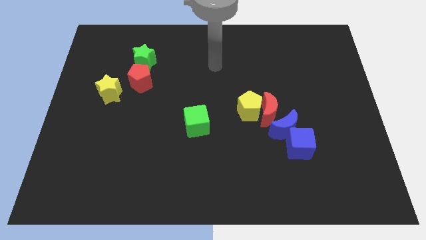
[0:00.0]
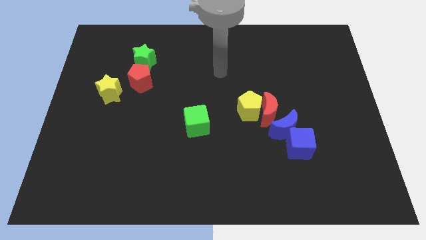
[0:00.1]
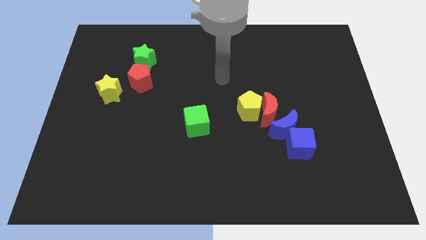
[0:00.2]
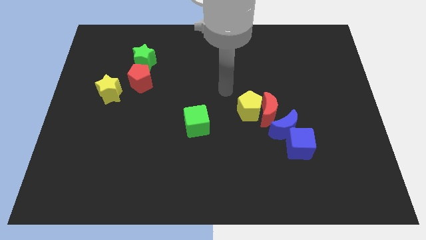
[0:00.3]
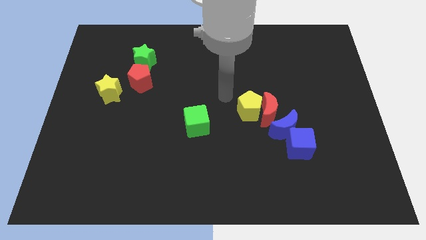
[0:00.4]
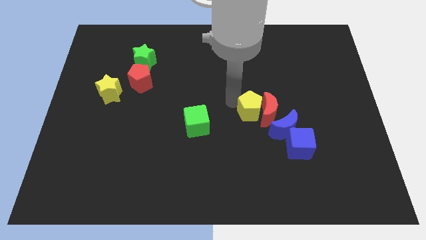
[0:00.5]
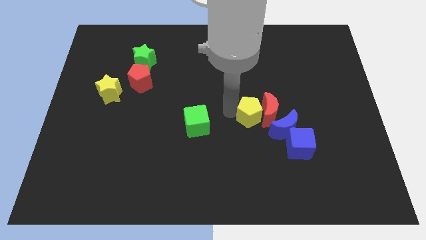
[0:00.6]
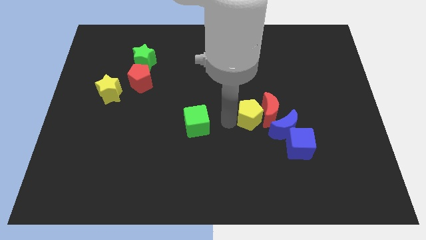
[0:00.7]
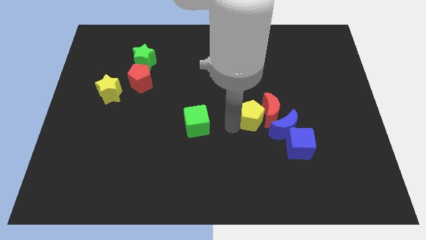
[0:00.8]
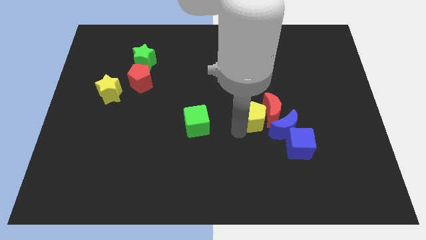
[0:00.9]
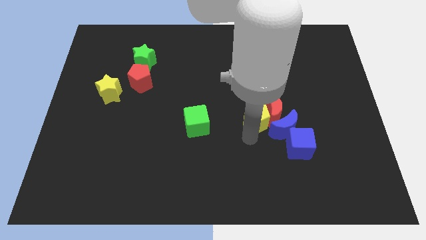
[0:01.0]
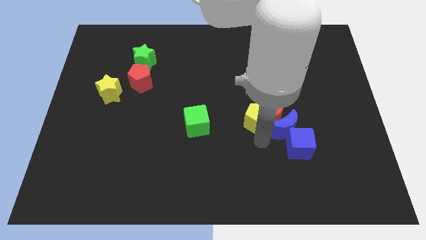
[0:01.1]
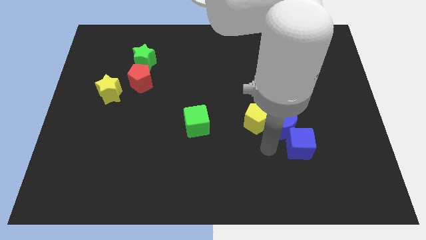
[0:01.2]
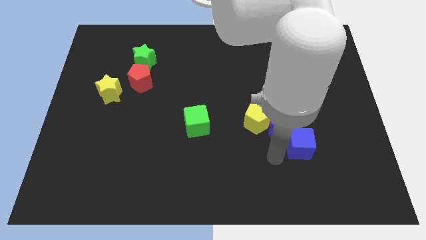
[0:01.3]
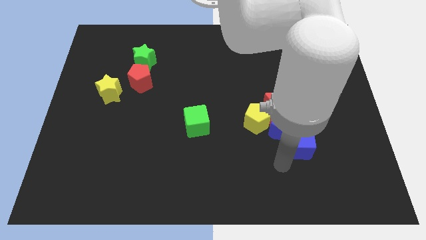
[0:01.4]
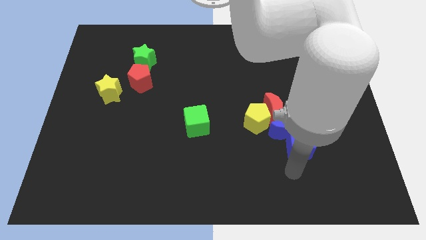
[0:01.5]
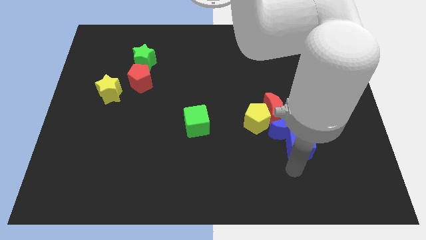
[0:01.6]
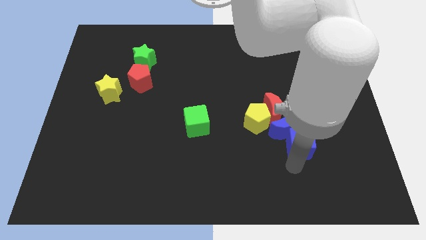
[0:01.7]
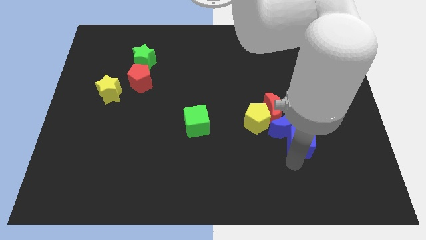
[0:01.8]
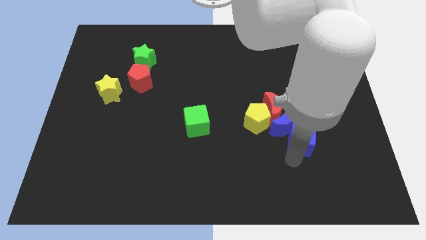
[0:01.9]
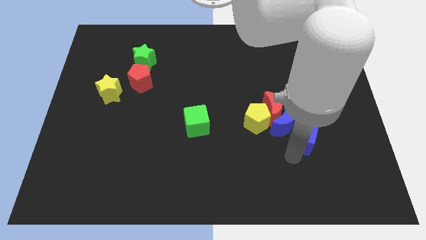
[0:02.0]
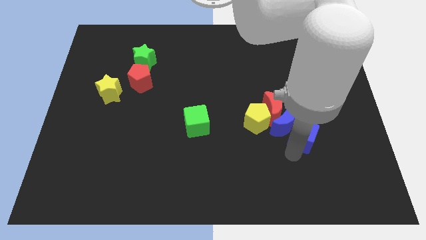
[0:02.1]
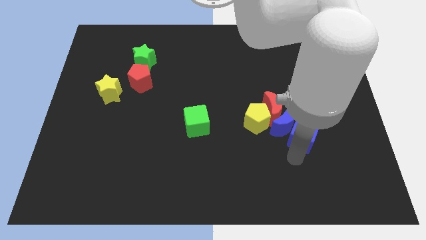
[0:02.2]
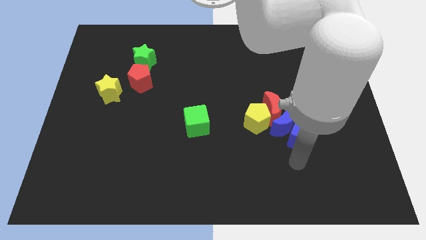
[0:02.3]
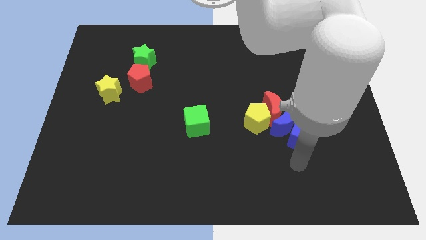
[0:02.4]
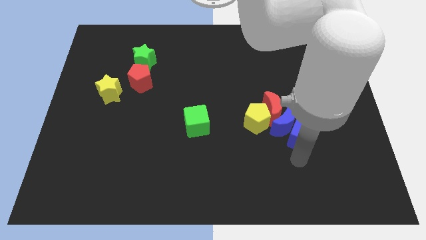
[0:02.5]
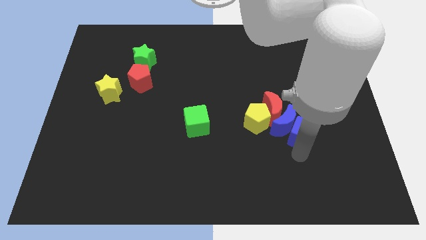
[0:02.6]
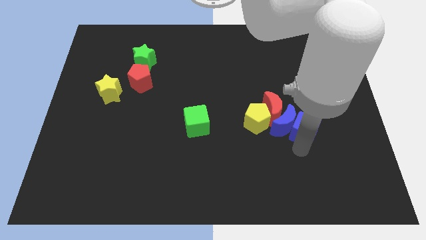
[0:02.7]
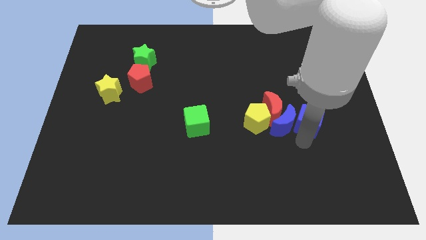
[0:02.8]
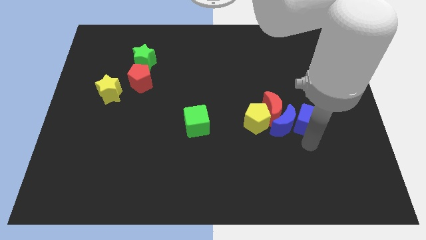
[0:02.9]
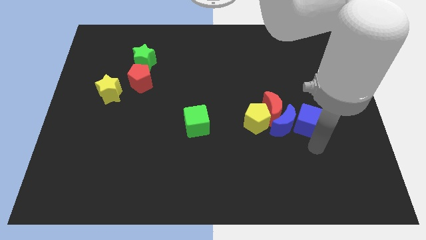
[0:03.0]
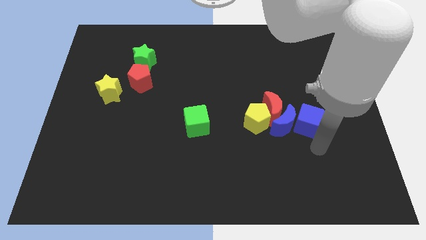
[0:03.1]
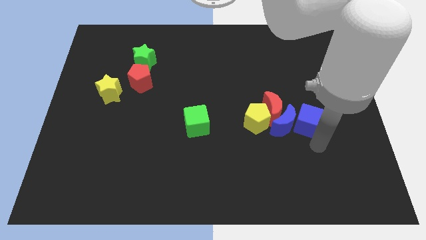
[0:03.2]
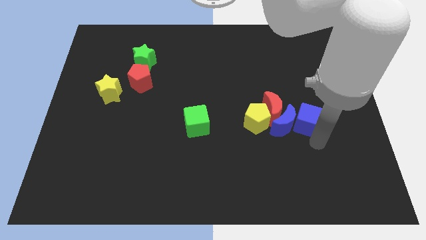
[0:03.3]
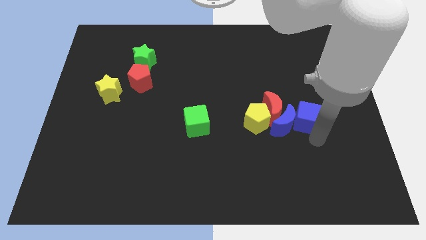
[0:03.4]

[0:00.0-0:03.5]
slide the blue cube upwards a little bit

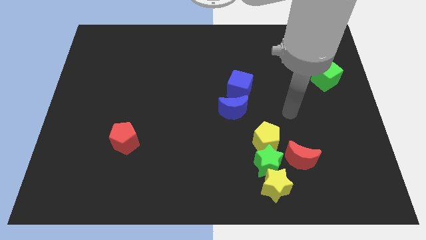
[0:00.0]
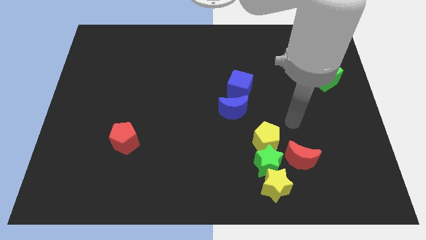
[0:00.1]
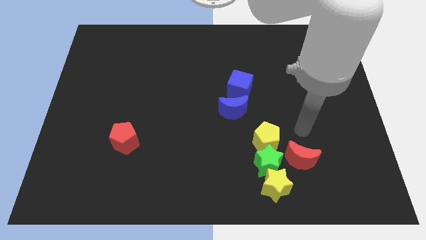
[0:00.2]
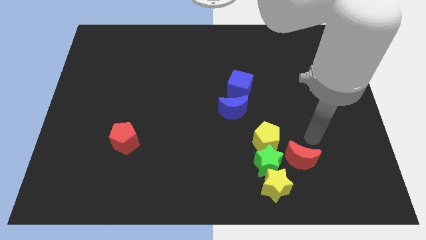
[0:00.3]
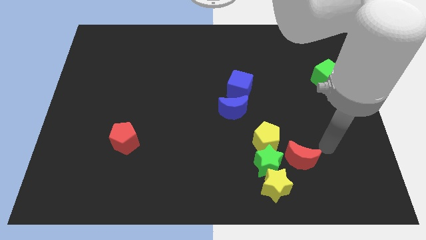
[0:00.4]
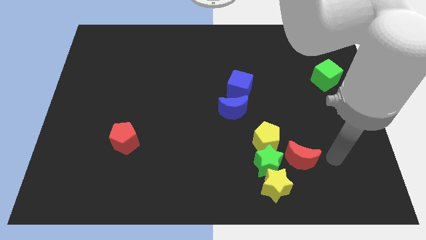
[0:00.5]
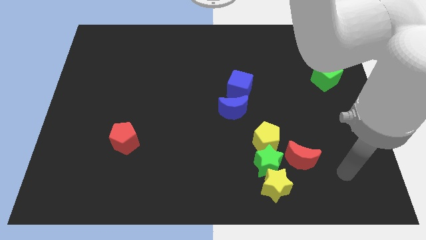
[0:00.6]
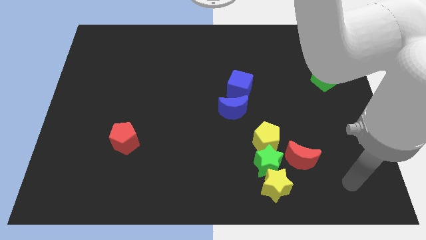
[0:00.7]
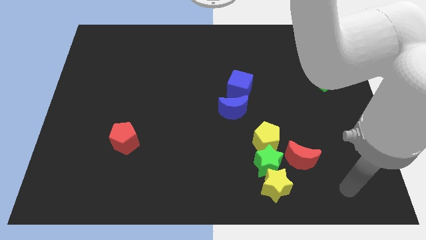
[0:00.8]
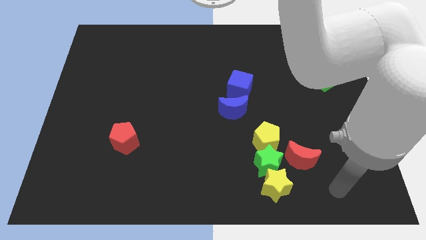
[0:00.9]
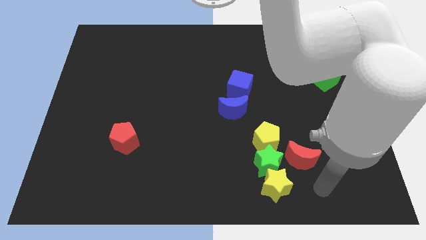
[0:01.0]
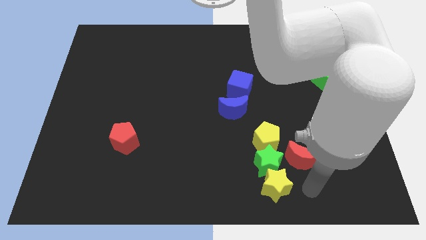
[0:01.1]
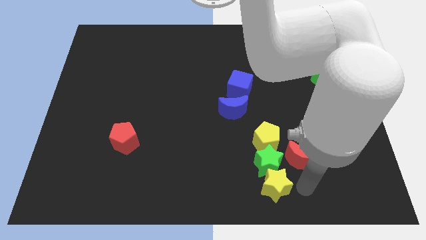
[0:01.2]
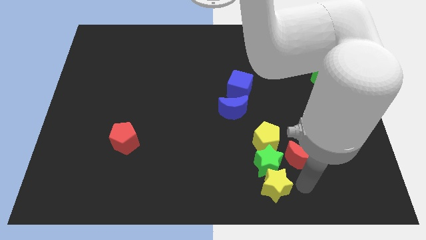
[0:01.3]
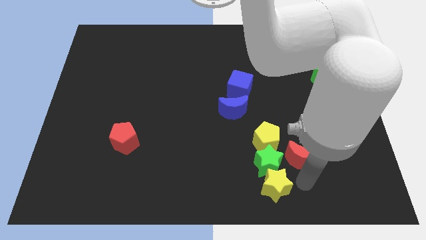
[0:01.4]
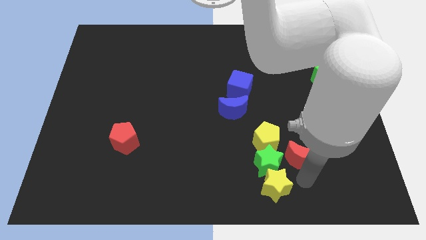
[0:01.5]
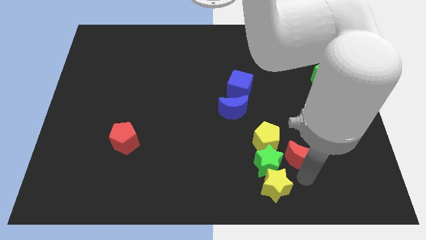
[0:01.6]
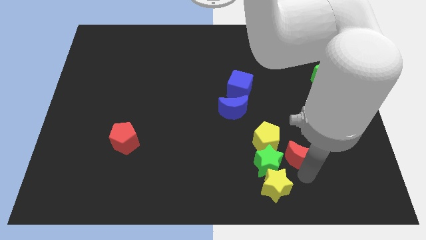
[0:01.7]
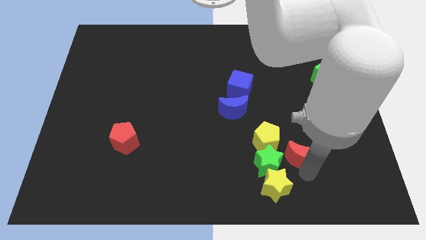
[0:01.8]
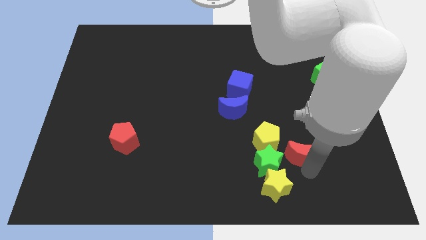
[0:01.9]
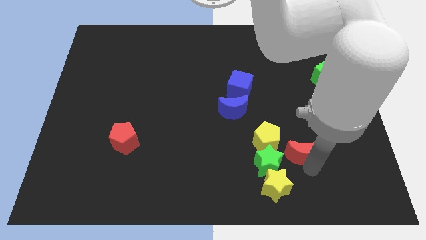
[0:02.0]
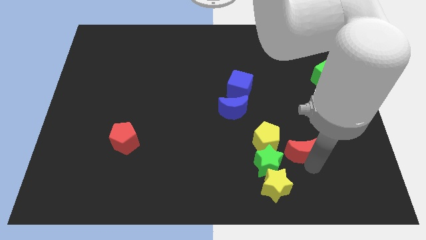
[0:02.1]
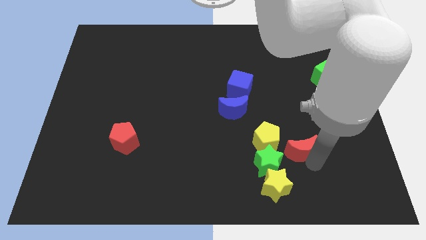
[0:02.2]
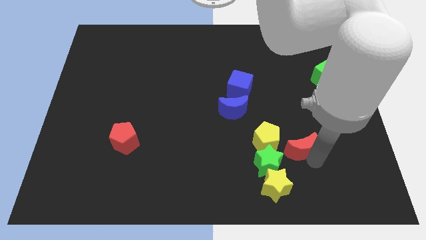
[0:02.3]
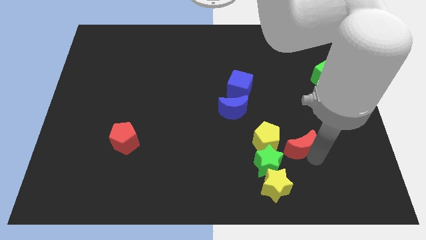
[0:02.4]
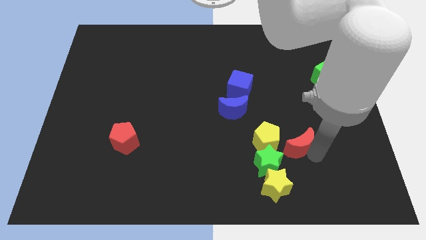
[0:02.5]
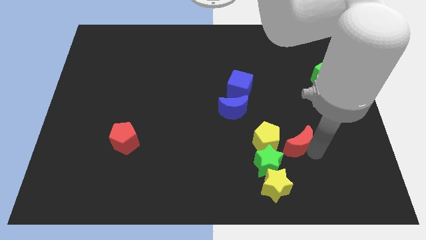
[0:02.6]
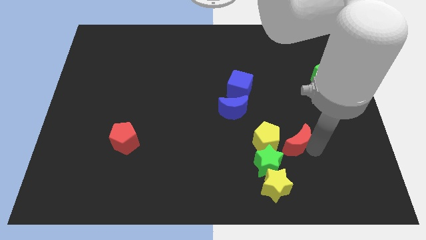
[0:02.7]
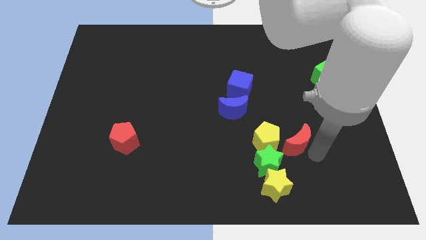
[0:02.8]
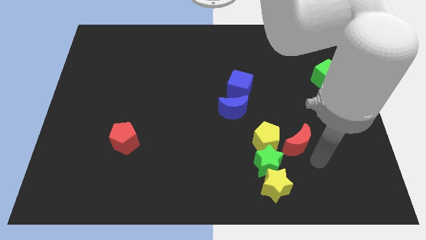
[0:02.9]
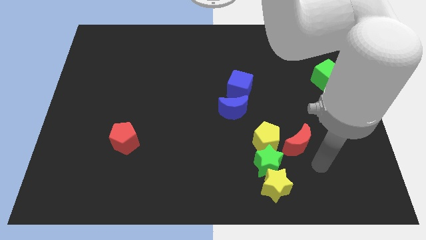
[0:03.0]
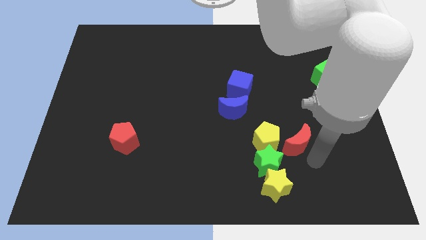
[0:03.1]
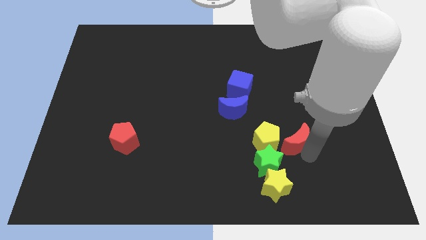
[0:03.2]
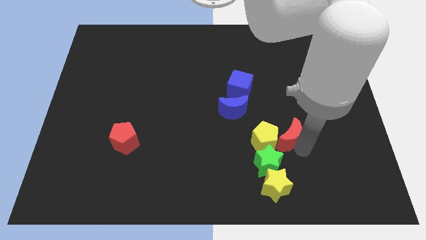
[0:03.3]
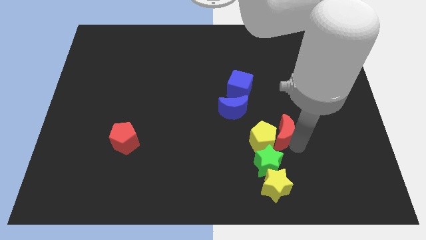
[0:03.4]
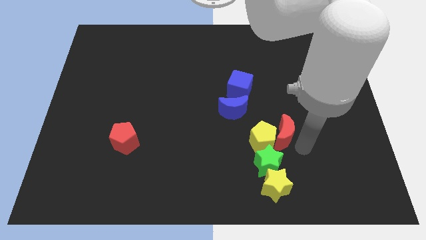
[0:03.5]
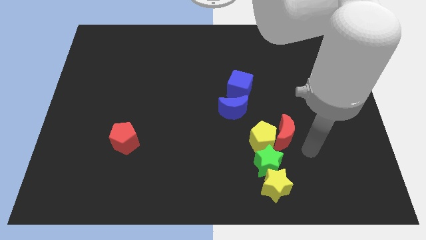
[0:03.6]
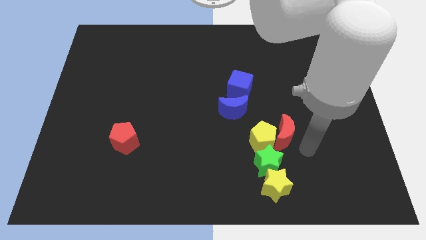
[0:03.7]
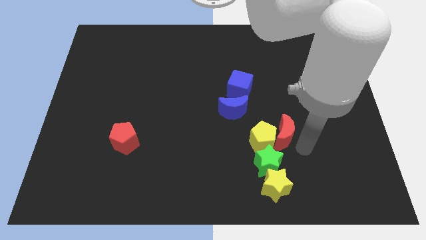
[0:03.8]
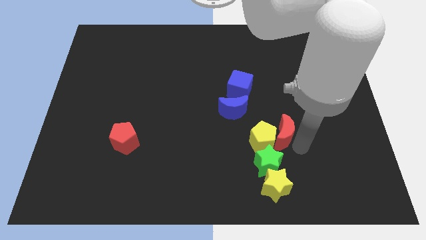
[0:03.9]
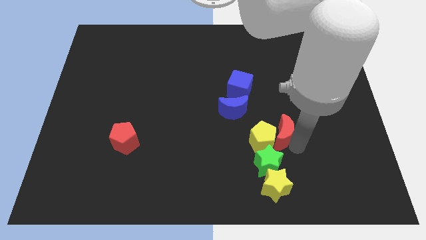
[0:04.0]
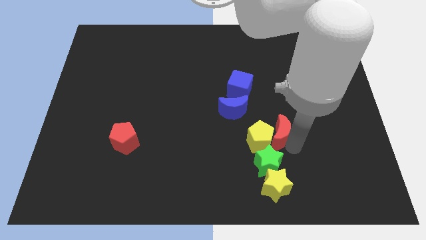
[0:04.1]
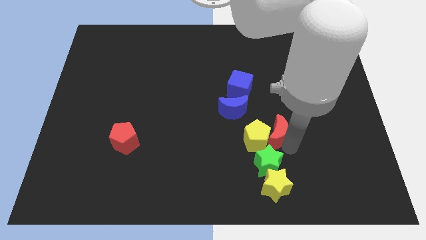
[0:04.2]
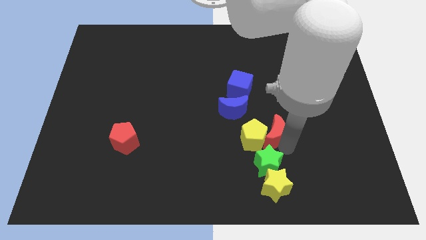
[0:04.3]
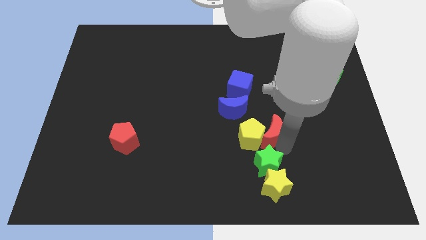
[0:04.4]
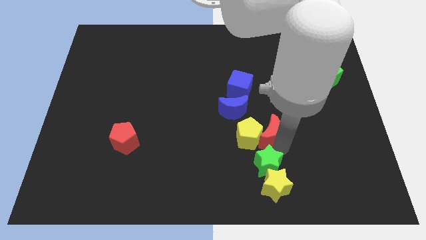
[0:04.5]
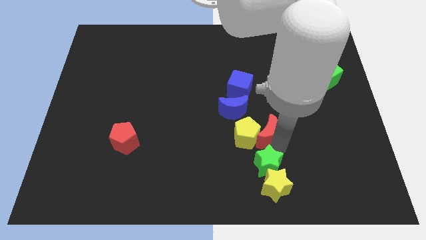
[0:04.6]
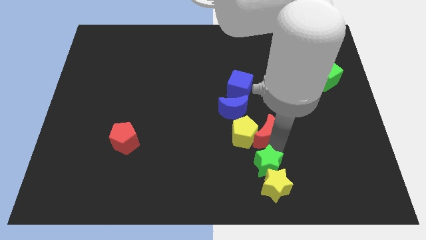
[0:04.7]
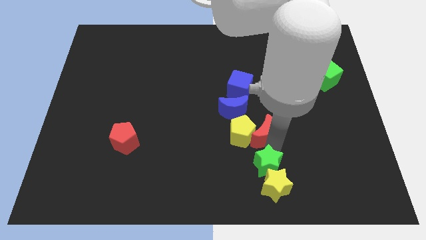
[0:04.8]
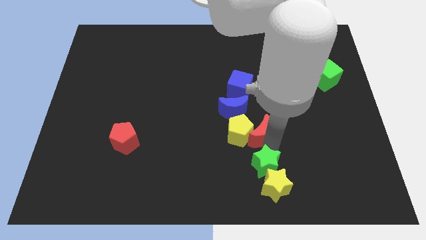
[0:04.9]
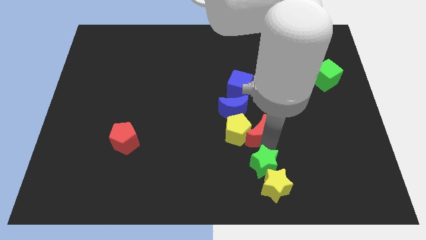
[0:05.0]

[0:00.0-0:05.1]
move the red moon left somewhat
